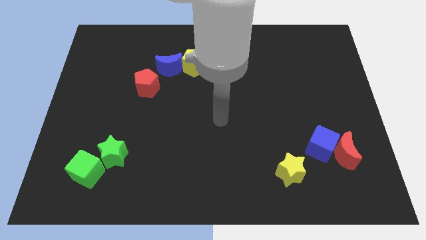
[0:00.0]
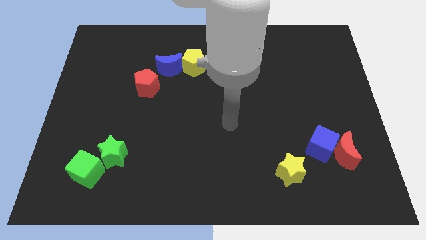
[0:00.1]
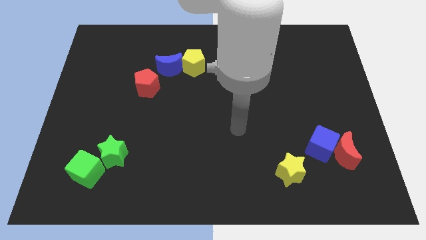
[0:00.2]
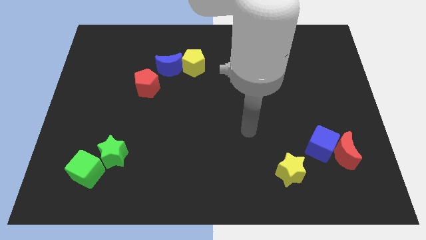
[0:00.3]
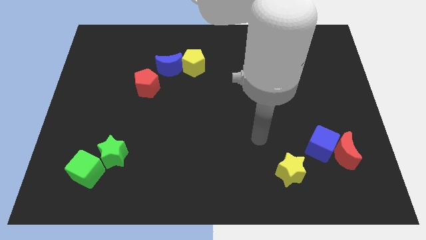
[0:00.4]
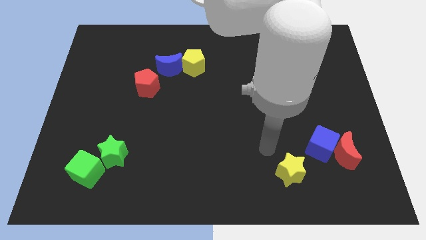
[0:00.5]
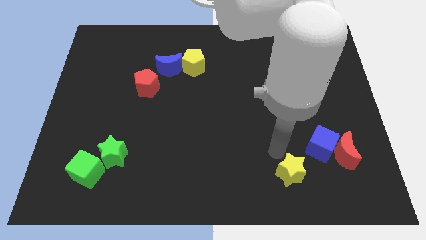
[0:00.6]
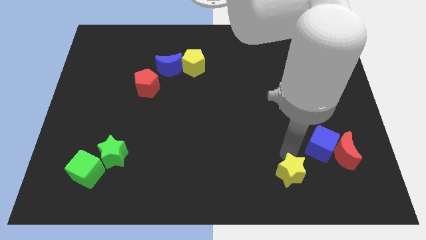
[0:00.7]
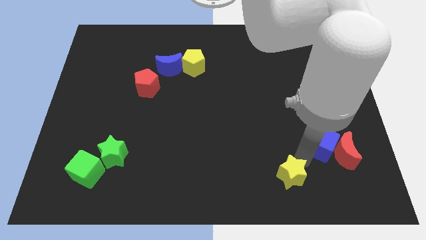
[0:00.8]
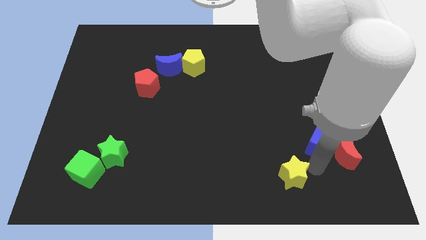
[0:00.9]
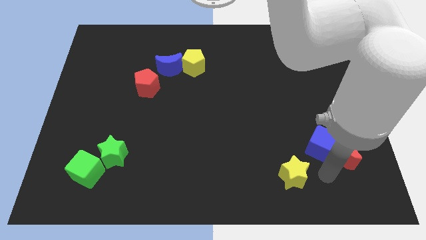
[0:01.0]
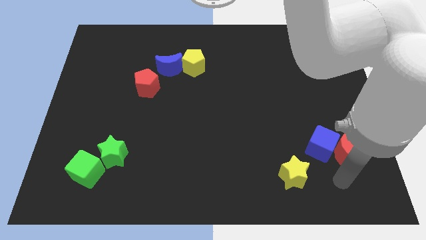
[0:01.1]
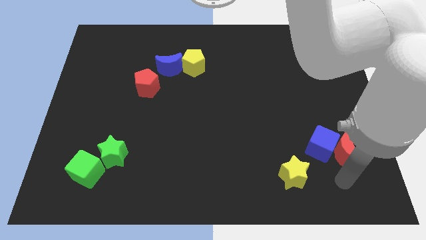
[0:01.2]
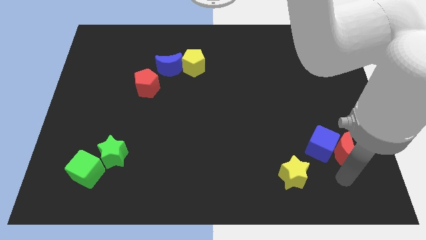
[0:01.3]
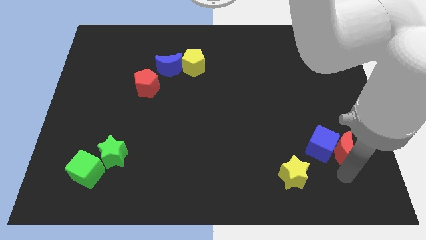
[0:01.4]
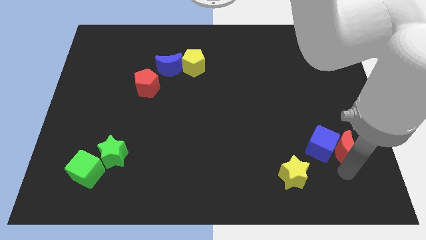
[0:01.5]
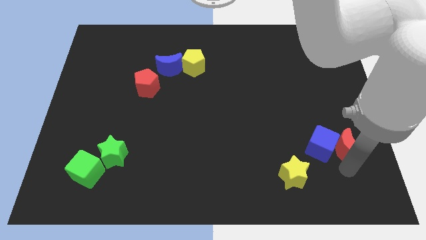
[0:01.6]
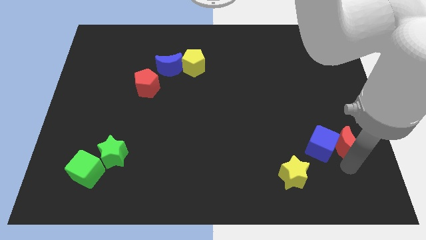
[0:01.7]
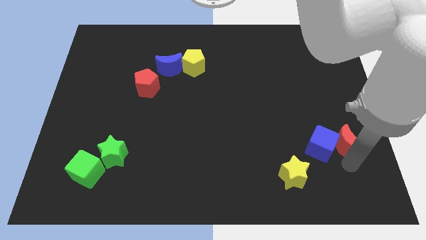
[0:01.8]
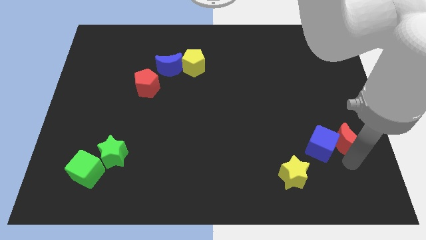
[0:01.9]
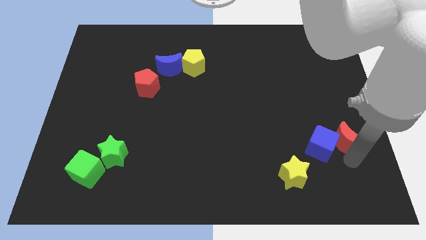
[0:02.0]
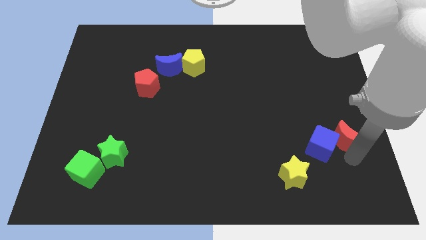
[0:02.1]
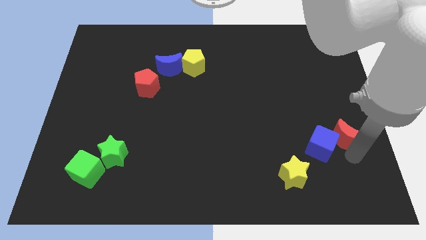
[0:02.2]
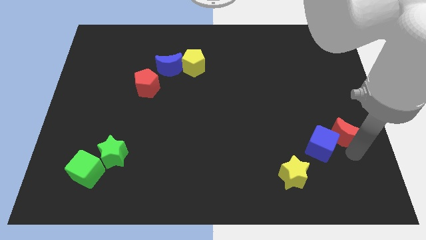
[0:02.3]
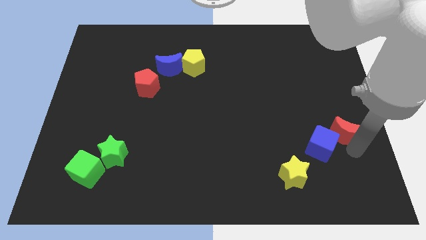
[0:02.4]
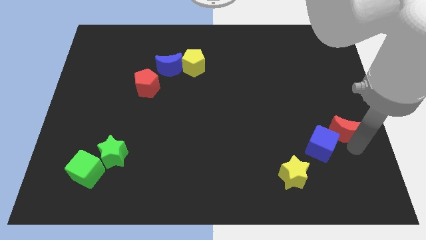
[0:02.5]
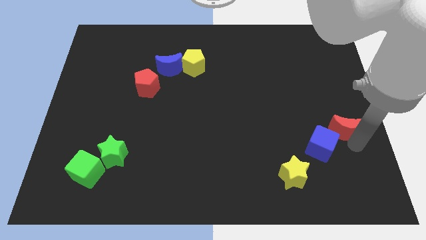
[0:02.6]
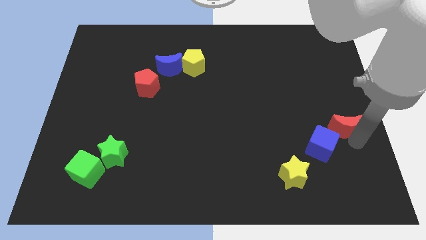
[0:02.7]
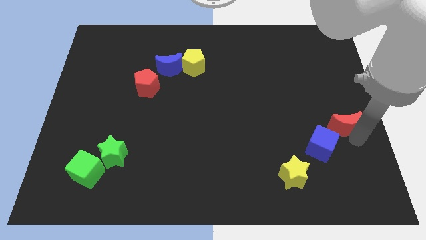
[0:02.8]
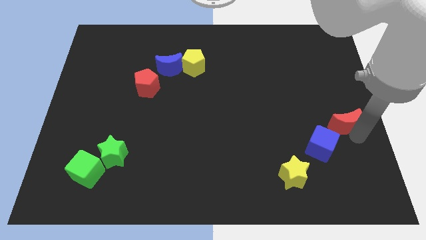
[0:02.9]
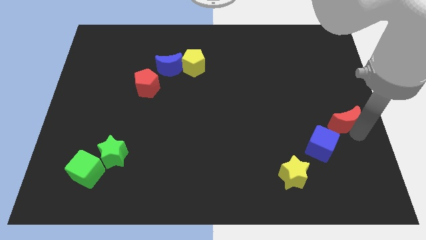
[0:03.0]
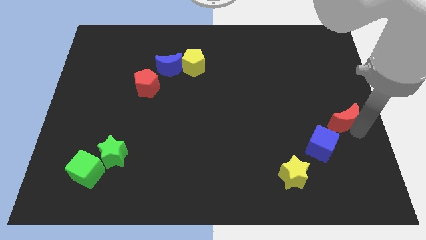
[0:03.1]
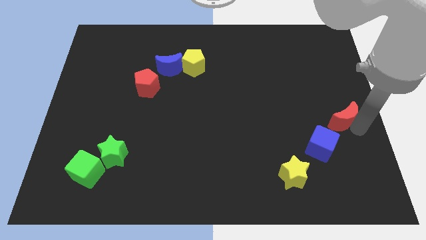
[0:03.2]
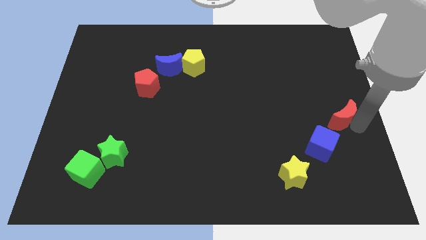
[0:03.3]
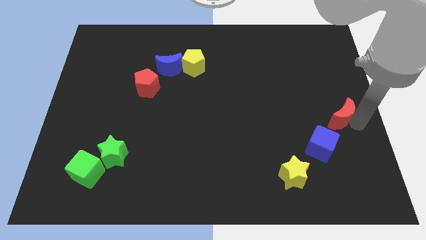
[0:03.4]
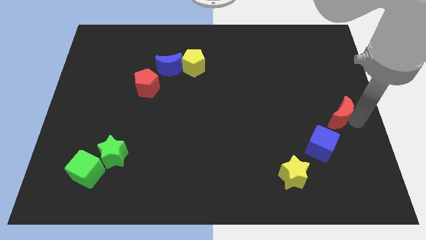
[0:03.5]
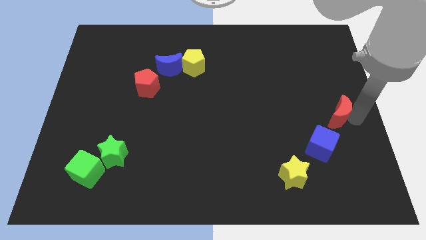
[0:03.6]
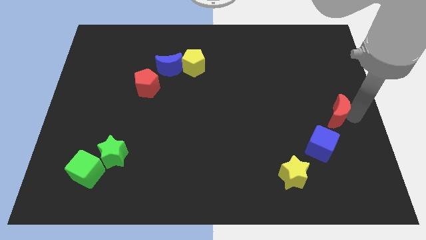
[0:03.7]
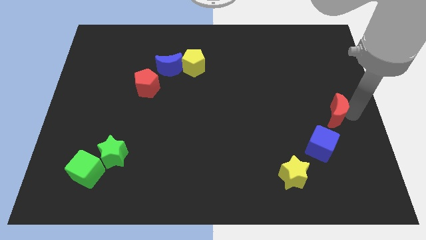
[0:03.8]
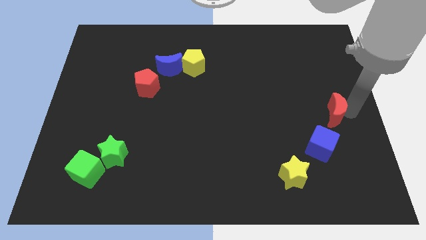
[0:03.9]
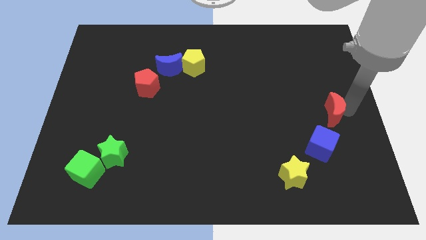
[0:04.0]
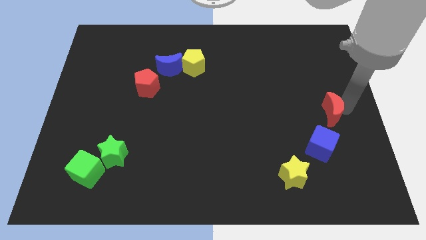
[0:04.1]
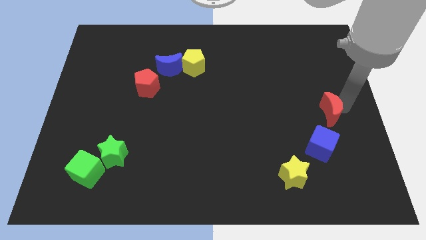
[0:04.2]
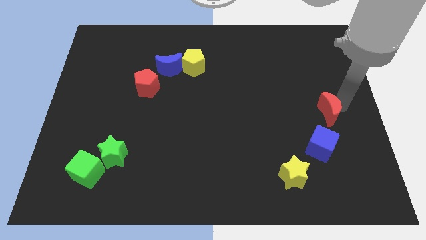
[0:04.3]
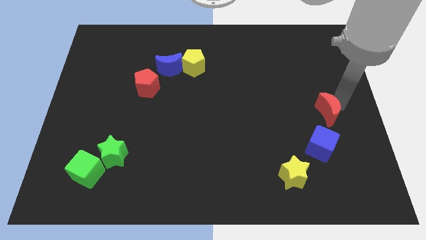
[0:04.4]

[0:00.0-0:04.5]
slightly push the red moon up and to the left

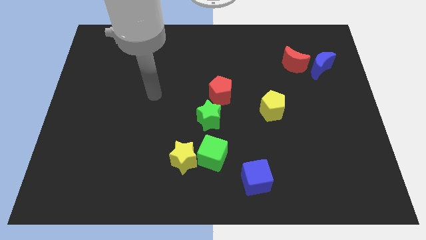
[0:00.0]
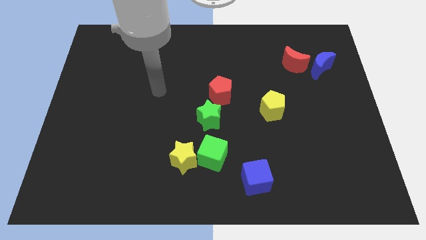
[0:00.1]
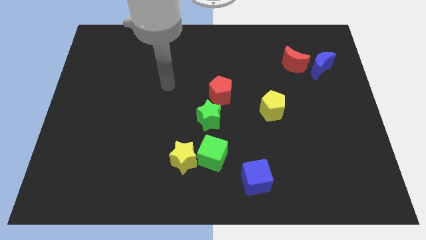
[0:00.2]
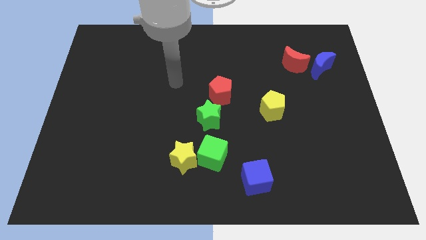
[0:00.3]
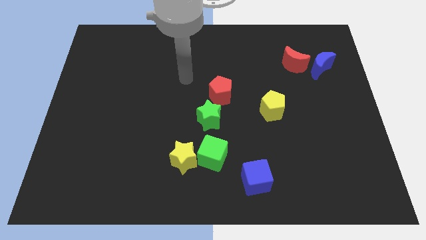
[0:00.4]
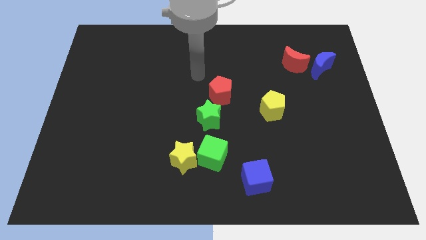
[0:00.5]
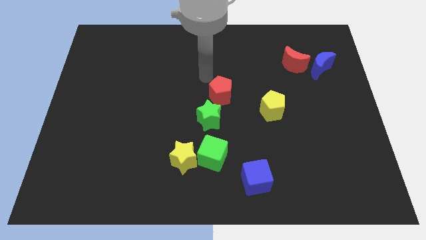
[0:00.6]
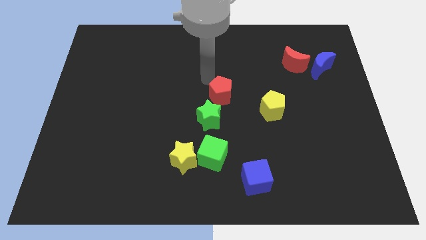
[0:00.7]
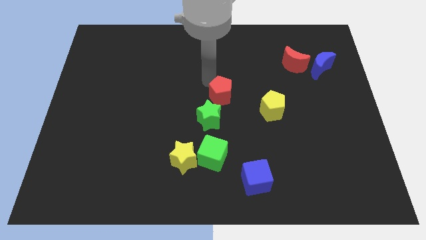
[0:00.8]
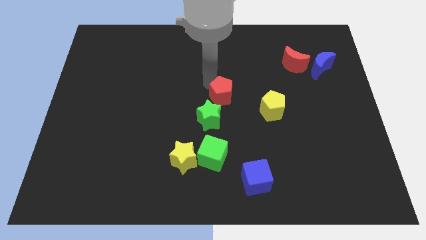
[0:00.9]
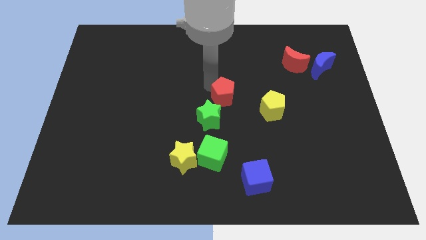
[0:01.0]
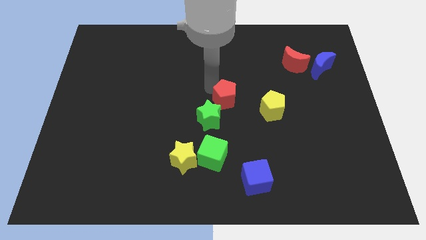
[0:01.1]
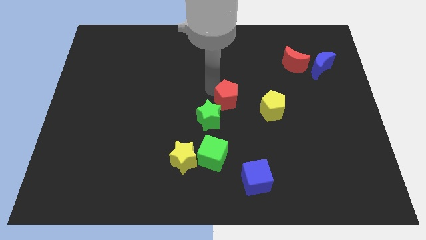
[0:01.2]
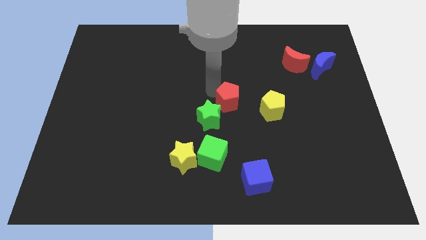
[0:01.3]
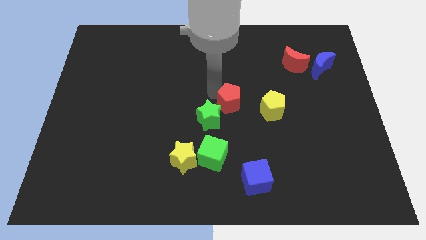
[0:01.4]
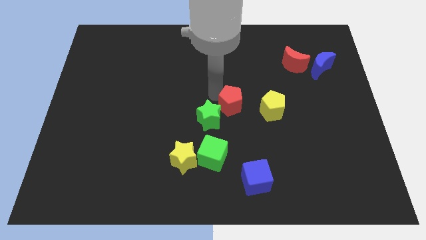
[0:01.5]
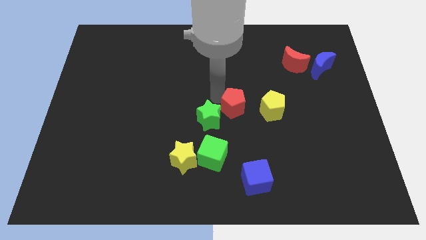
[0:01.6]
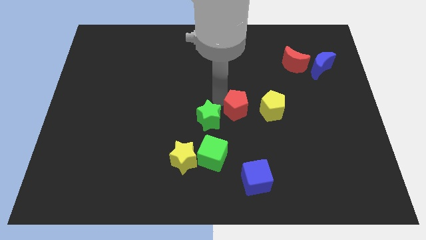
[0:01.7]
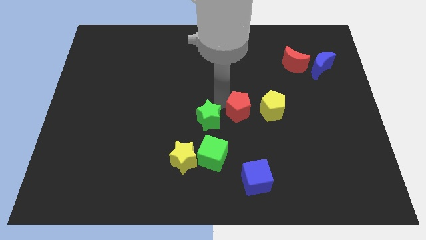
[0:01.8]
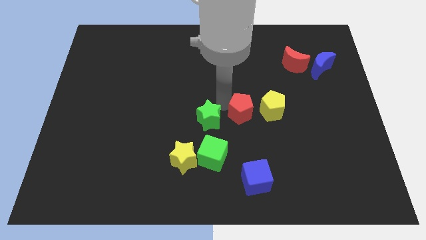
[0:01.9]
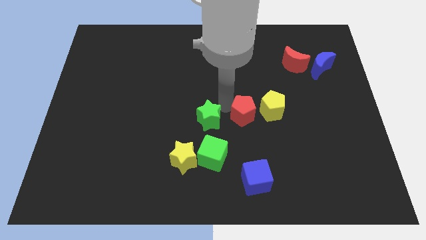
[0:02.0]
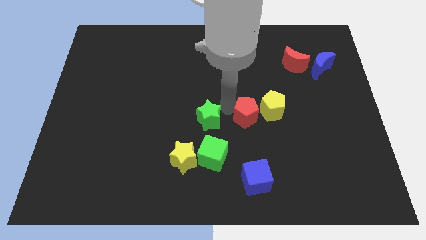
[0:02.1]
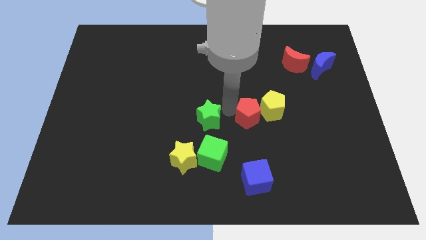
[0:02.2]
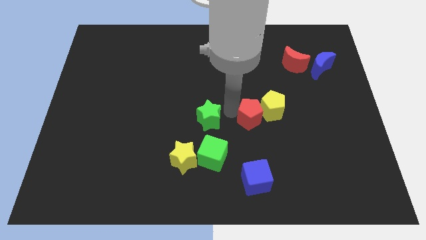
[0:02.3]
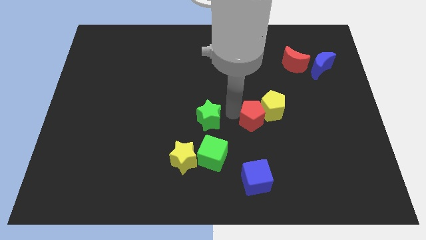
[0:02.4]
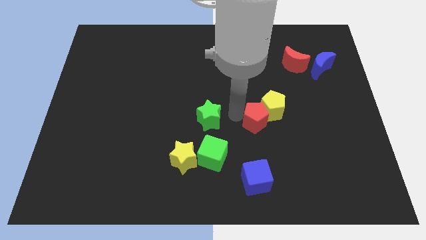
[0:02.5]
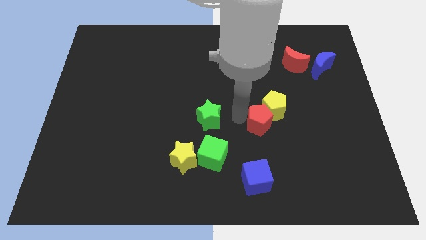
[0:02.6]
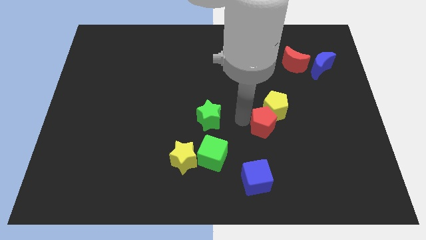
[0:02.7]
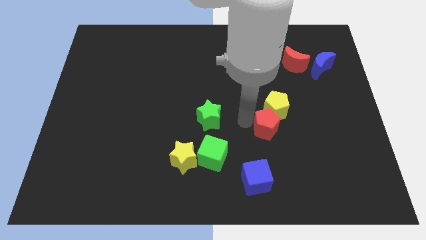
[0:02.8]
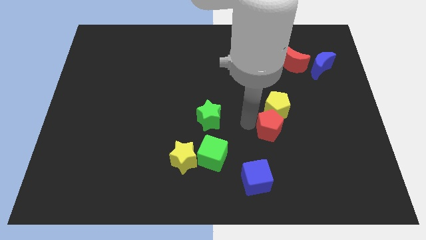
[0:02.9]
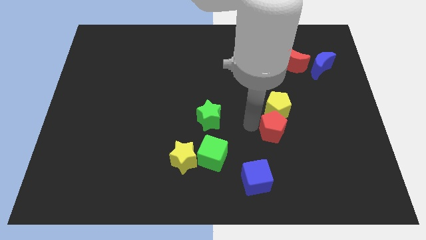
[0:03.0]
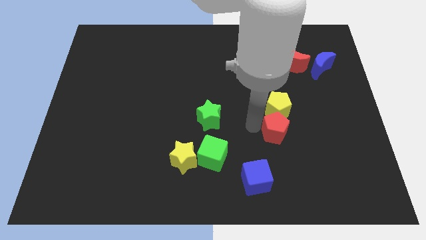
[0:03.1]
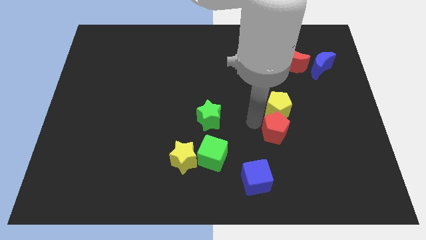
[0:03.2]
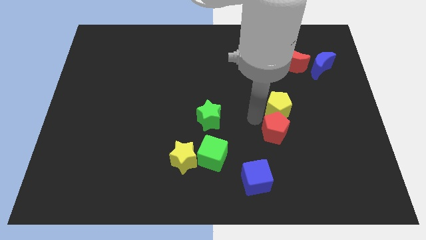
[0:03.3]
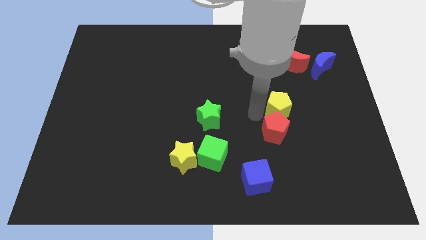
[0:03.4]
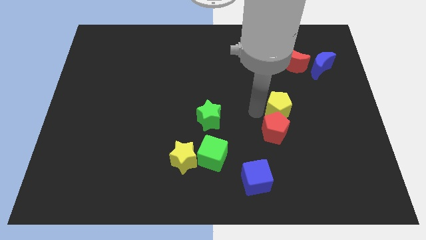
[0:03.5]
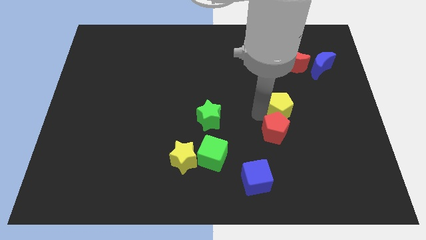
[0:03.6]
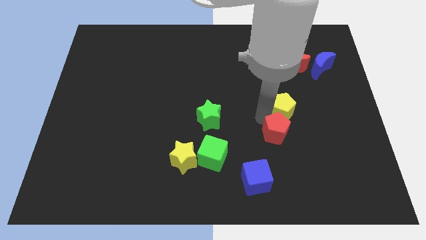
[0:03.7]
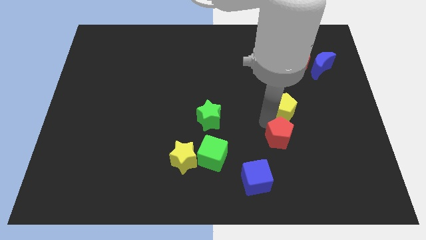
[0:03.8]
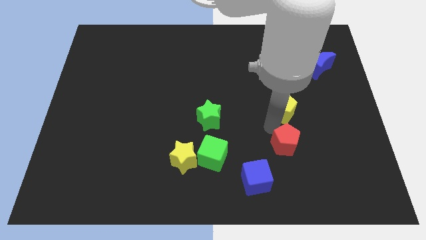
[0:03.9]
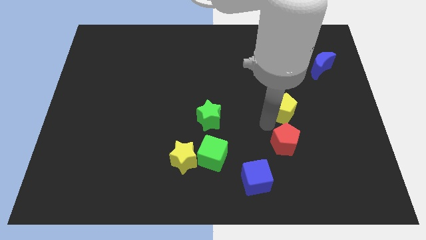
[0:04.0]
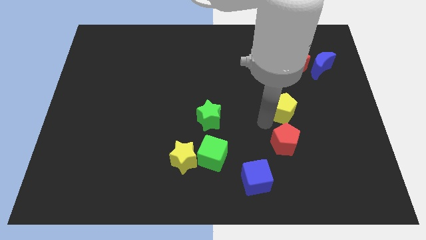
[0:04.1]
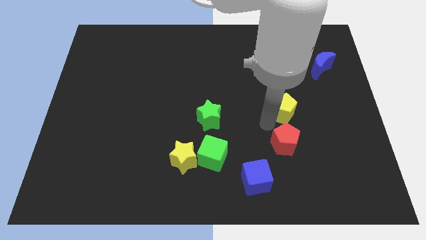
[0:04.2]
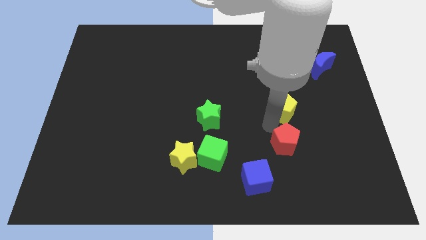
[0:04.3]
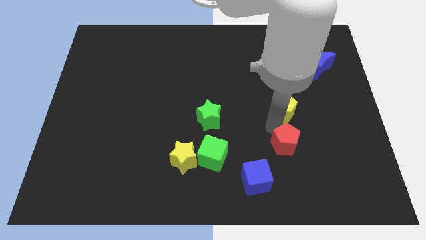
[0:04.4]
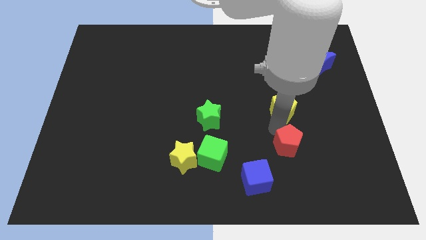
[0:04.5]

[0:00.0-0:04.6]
slide the red pentagon diagonally downwards and to the right
